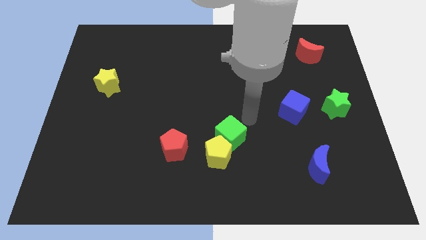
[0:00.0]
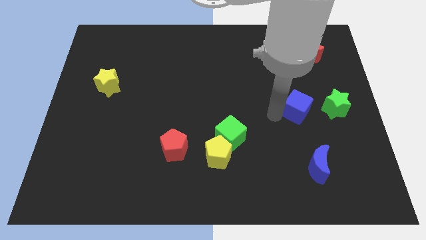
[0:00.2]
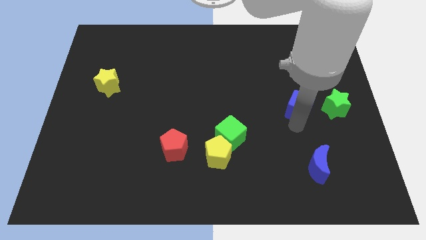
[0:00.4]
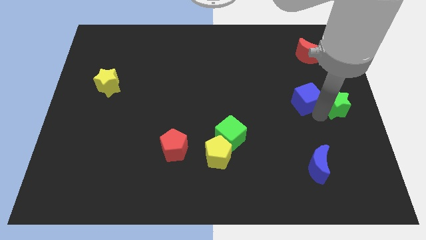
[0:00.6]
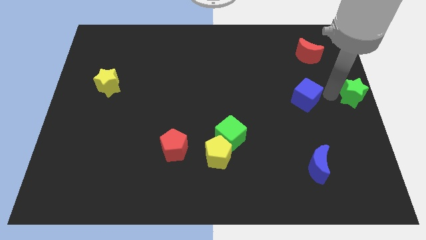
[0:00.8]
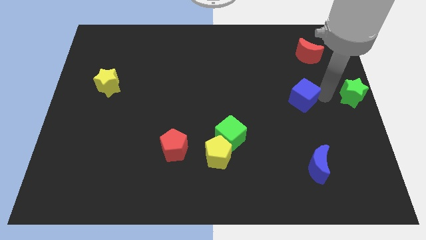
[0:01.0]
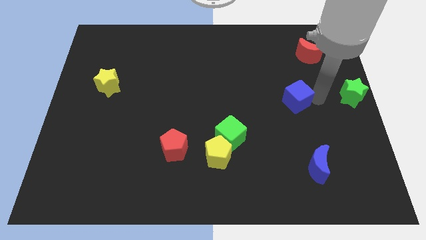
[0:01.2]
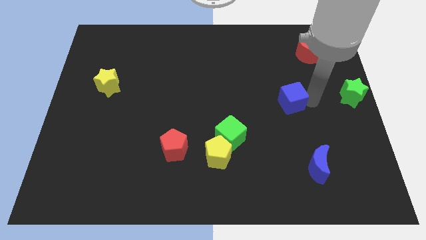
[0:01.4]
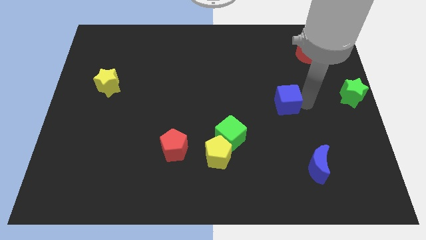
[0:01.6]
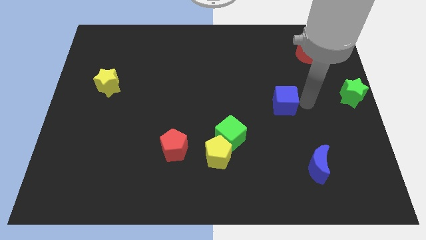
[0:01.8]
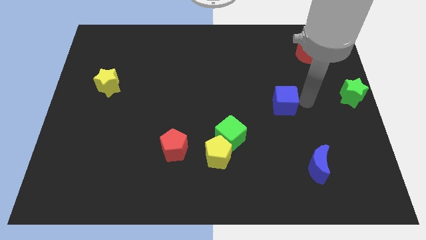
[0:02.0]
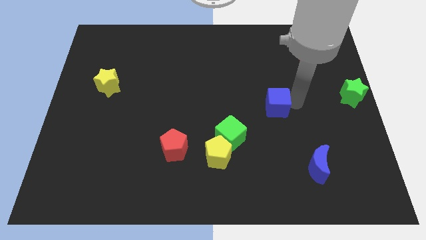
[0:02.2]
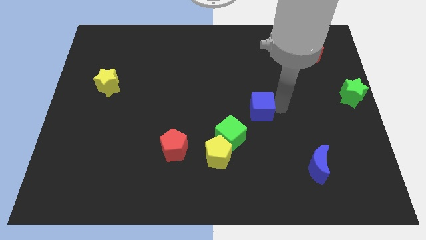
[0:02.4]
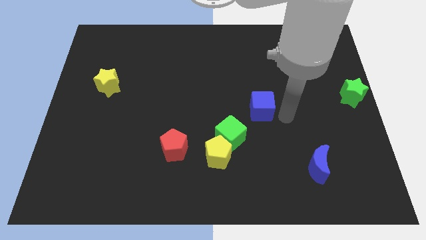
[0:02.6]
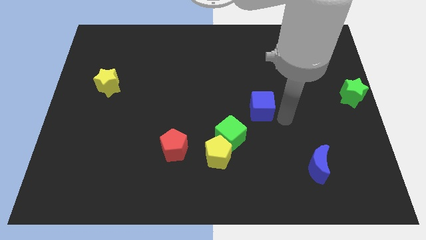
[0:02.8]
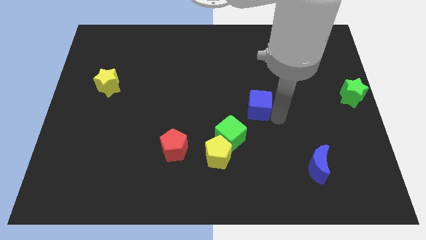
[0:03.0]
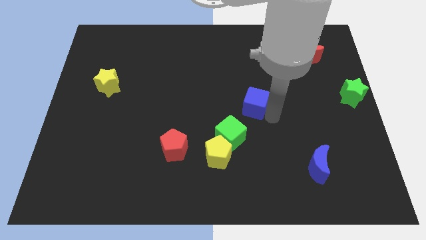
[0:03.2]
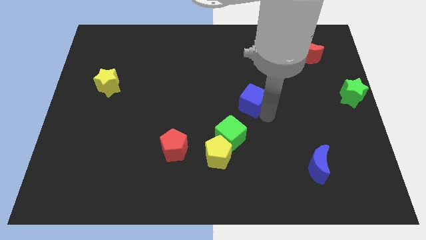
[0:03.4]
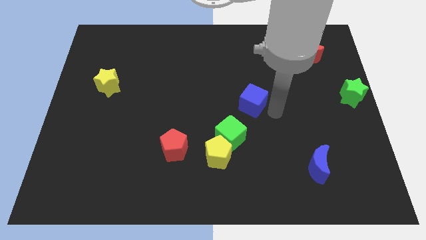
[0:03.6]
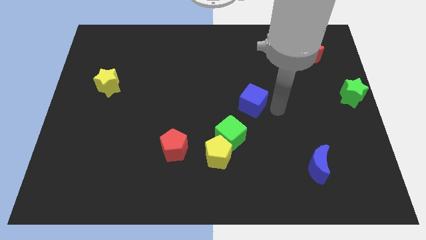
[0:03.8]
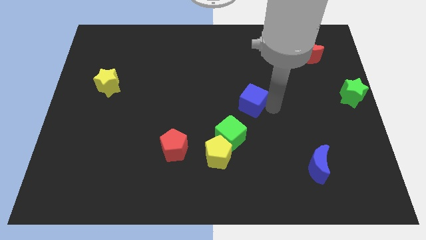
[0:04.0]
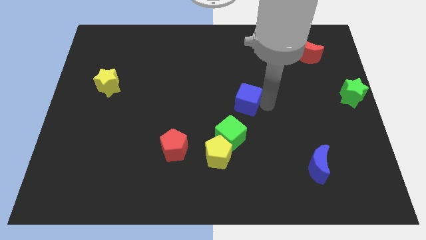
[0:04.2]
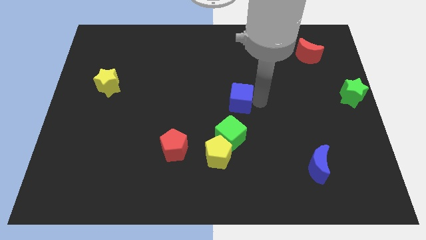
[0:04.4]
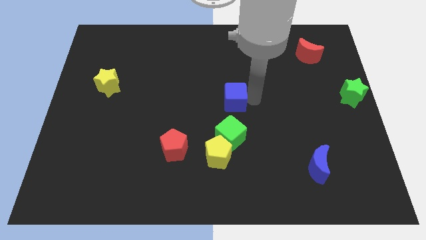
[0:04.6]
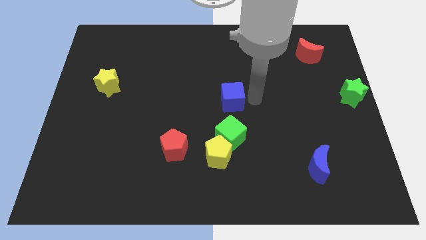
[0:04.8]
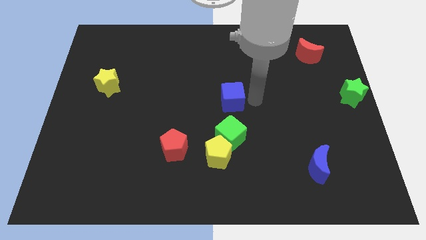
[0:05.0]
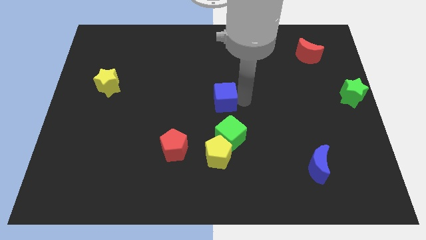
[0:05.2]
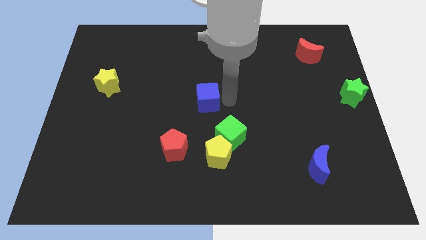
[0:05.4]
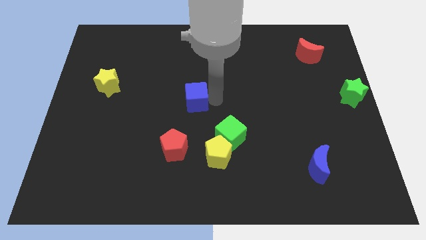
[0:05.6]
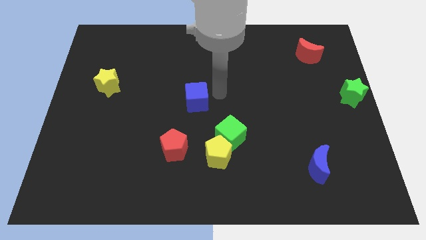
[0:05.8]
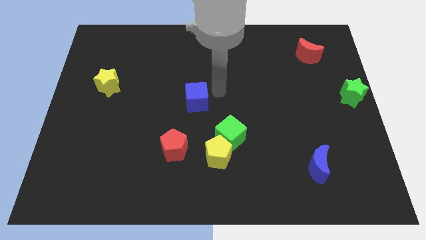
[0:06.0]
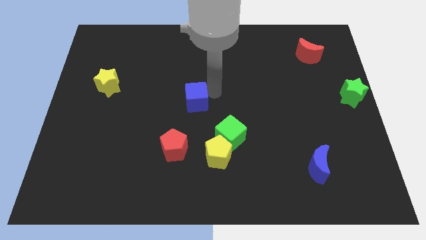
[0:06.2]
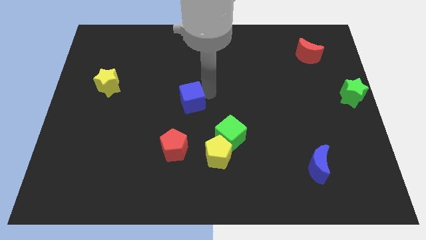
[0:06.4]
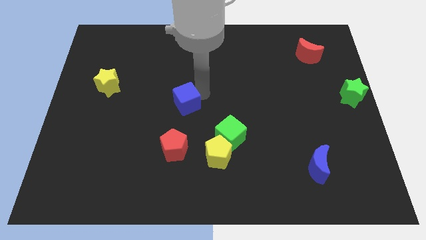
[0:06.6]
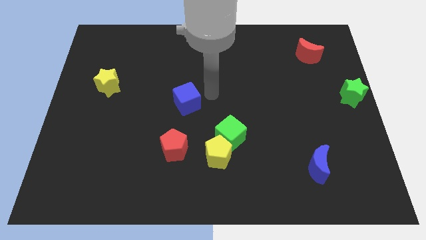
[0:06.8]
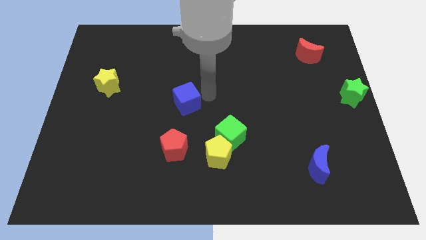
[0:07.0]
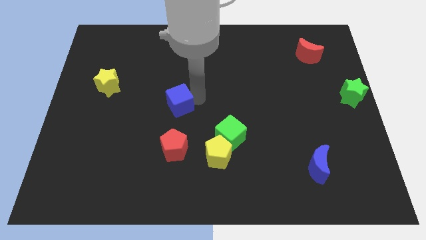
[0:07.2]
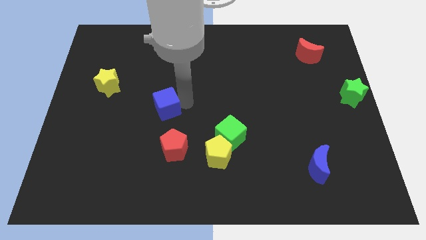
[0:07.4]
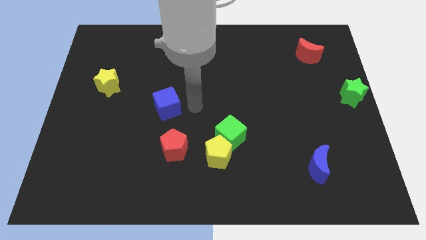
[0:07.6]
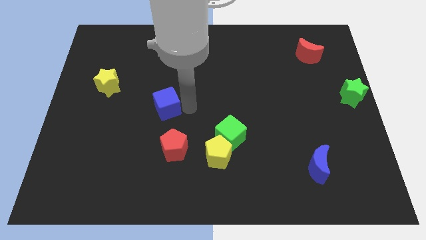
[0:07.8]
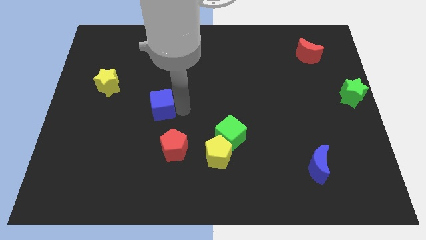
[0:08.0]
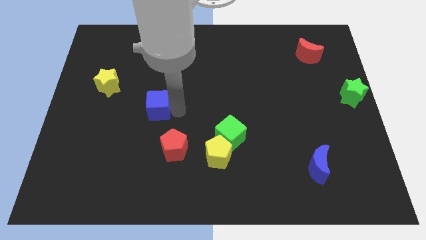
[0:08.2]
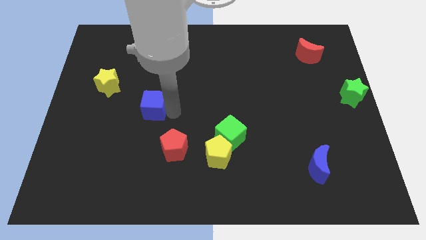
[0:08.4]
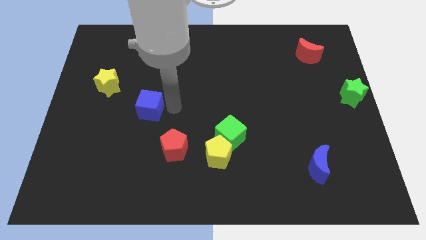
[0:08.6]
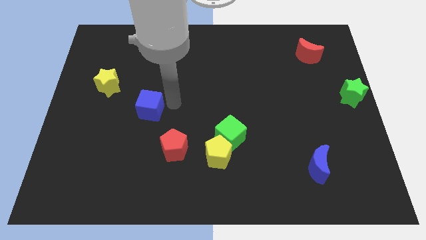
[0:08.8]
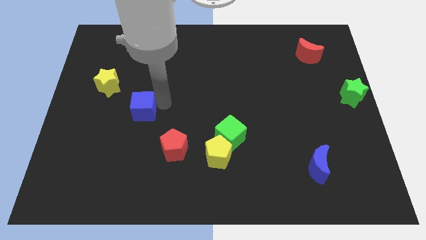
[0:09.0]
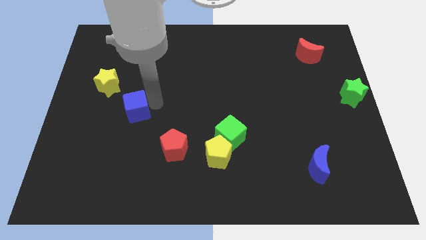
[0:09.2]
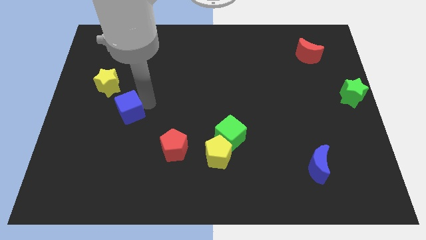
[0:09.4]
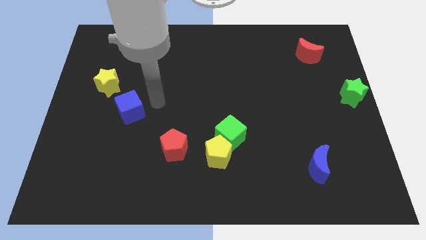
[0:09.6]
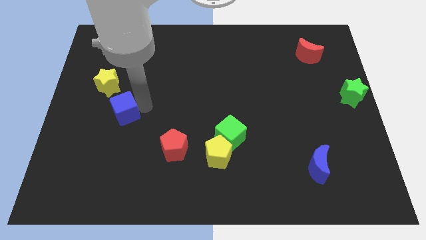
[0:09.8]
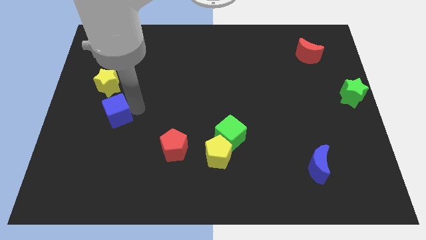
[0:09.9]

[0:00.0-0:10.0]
push the blue cube below the yellow star

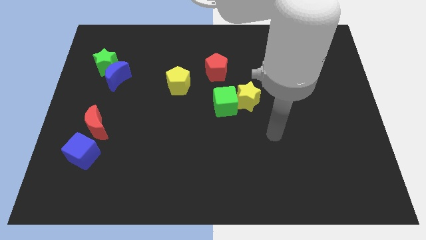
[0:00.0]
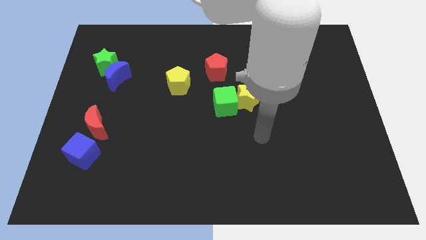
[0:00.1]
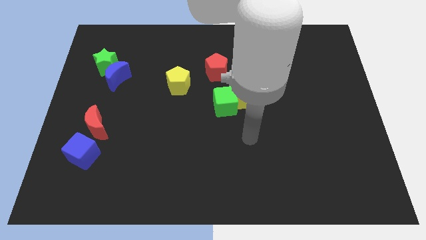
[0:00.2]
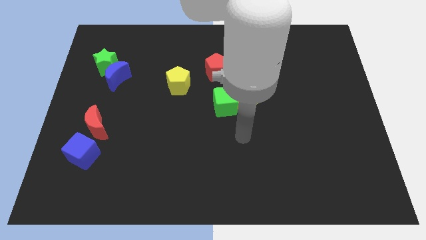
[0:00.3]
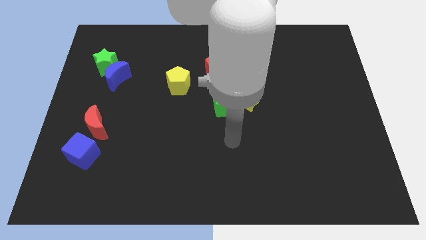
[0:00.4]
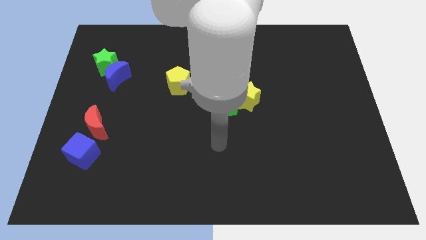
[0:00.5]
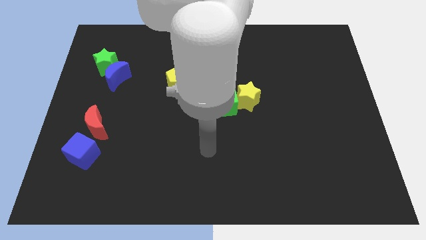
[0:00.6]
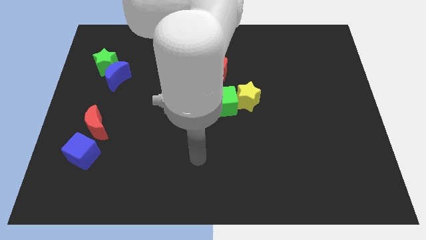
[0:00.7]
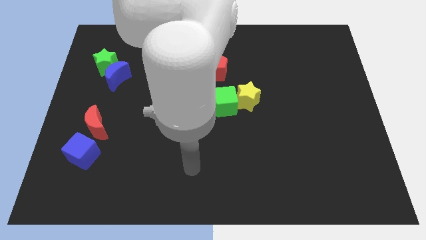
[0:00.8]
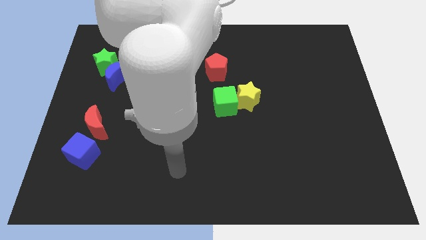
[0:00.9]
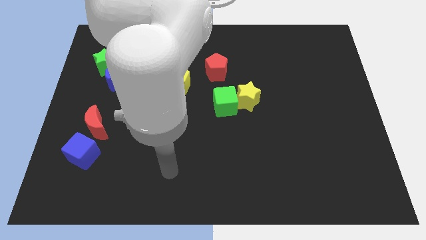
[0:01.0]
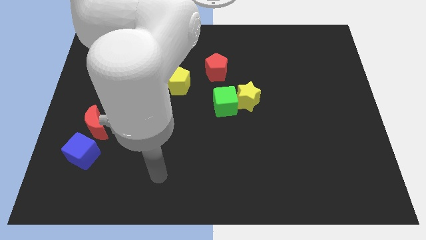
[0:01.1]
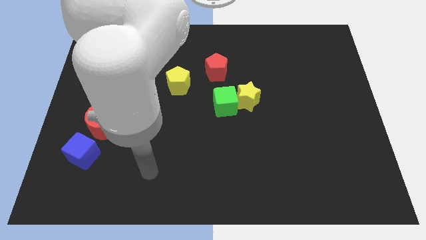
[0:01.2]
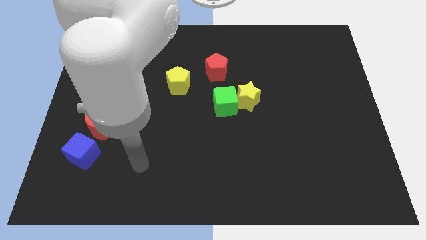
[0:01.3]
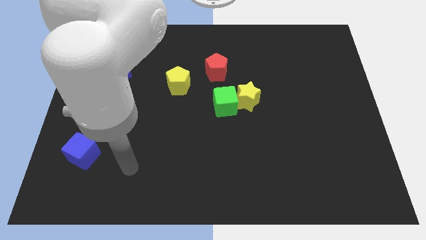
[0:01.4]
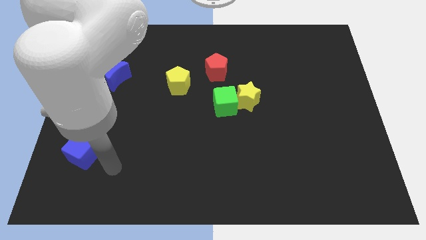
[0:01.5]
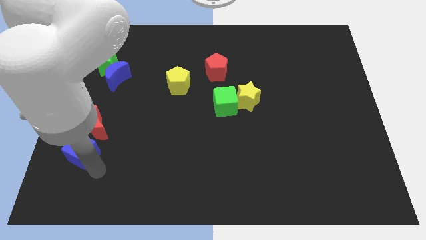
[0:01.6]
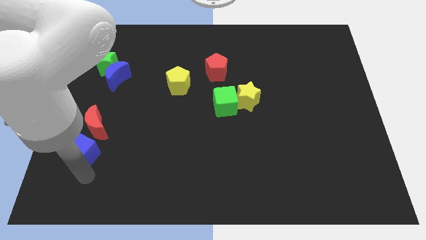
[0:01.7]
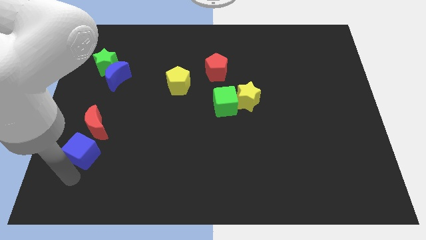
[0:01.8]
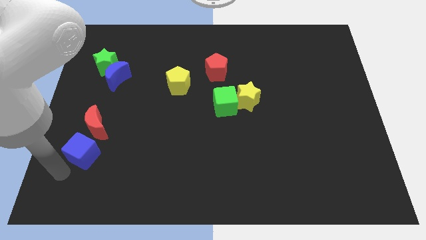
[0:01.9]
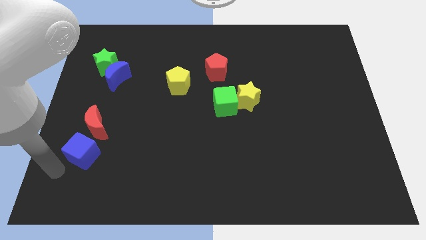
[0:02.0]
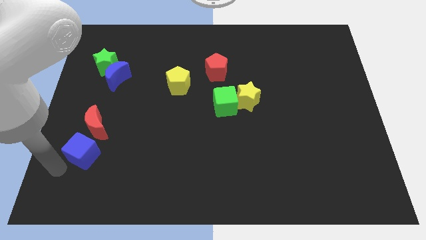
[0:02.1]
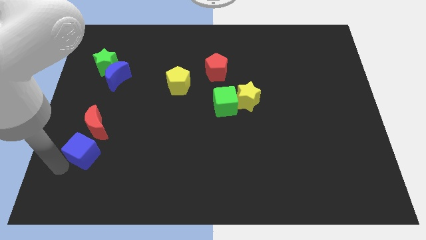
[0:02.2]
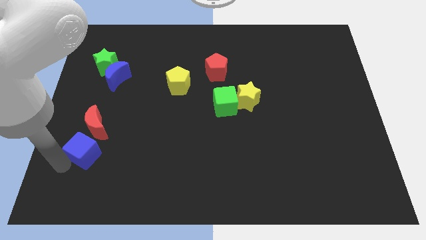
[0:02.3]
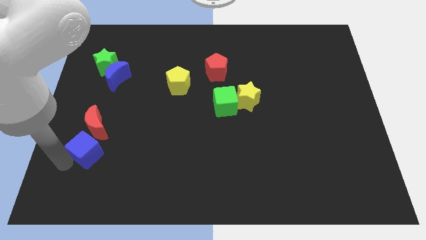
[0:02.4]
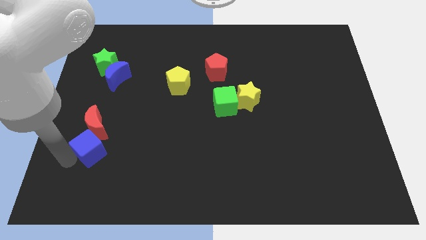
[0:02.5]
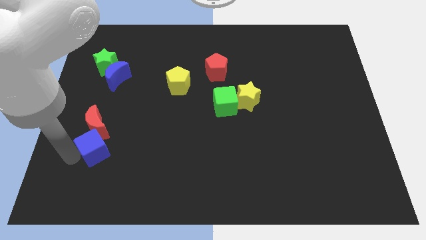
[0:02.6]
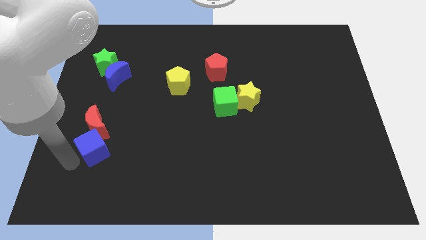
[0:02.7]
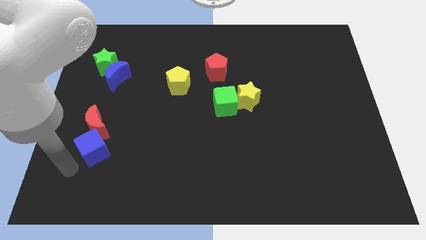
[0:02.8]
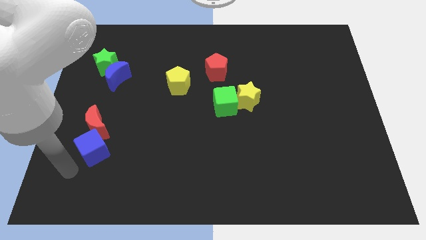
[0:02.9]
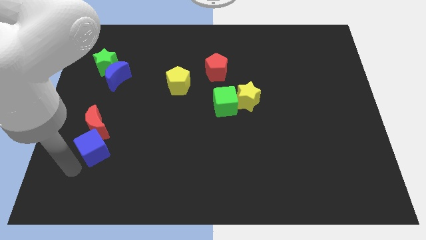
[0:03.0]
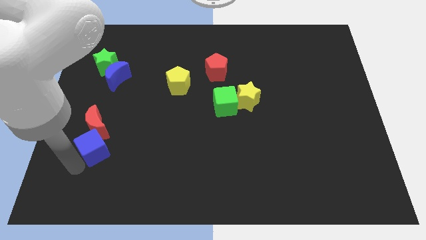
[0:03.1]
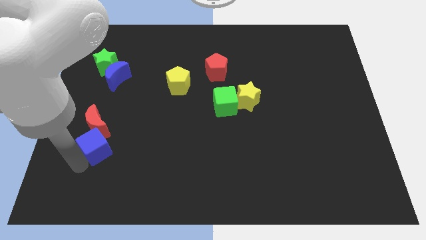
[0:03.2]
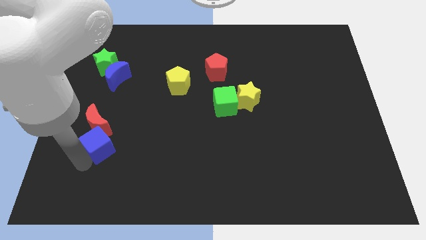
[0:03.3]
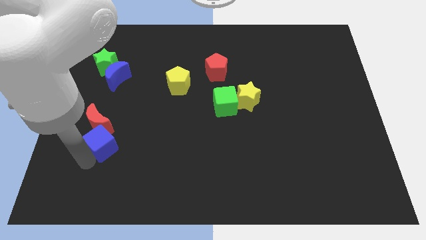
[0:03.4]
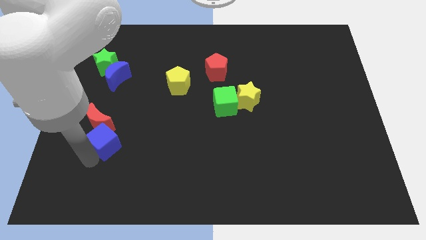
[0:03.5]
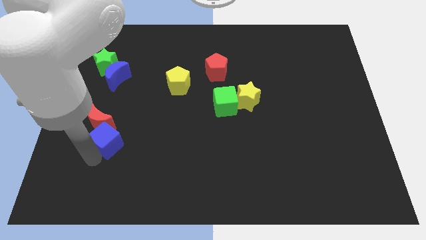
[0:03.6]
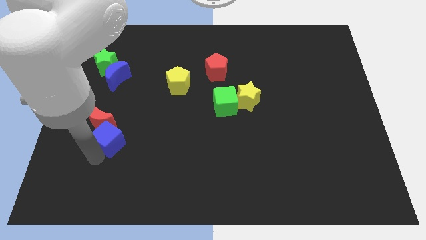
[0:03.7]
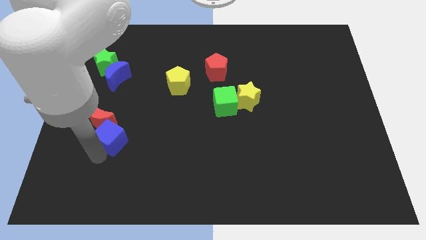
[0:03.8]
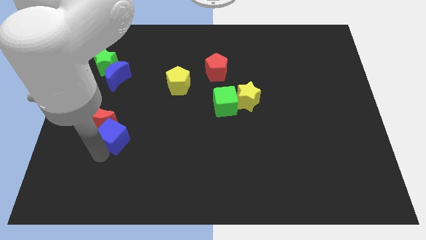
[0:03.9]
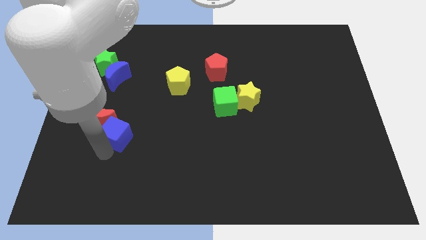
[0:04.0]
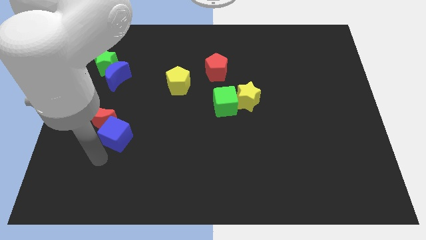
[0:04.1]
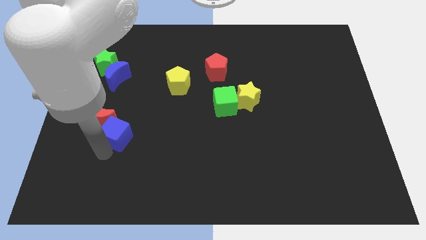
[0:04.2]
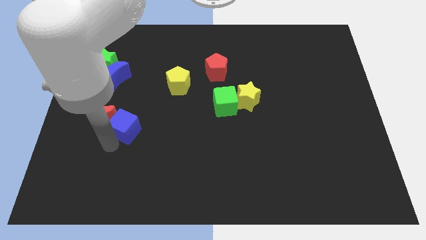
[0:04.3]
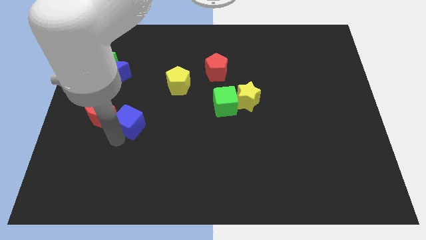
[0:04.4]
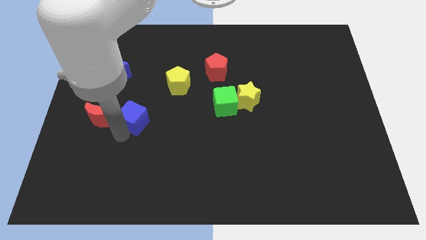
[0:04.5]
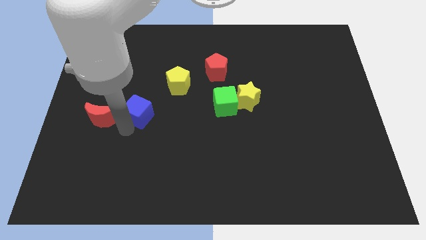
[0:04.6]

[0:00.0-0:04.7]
move the blue cube diagonally down and to the left of the yellow pentagon
